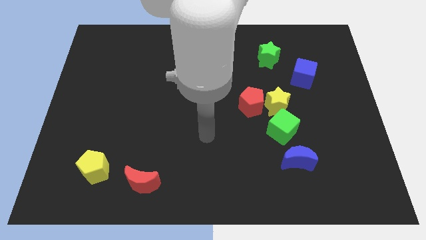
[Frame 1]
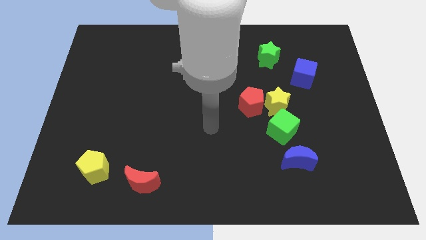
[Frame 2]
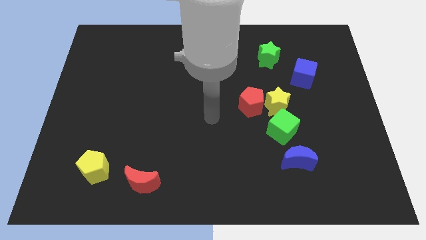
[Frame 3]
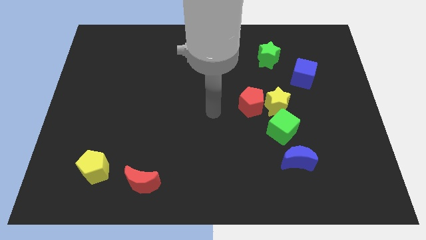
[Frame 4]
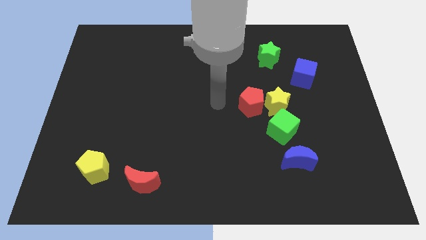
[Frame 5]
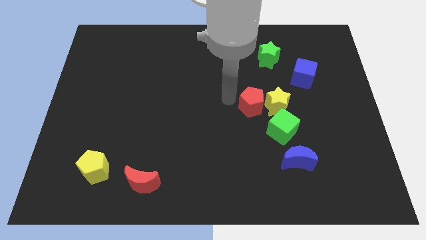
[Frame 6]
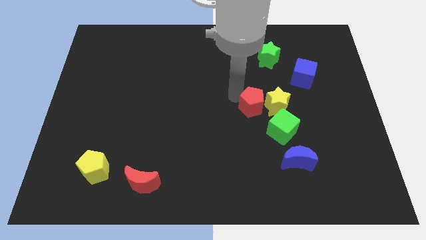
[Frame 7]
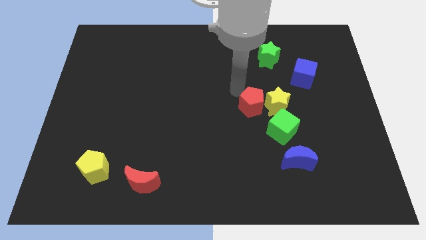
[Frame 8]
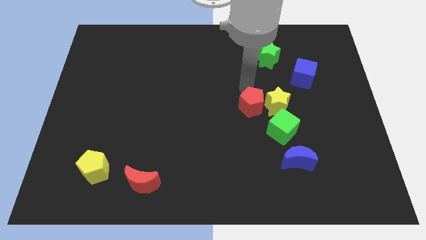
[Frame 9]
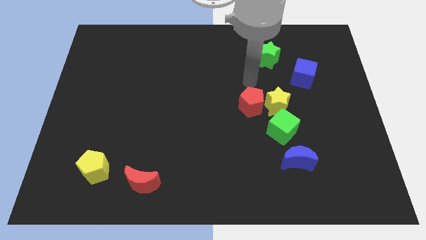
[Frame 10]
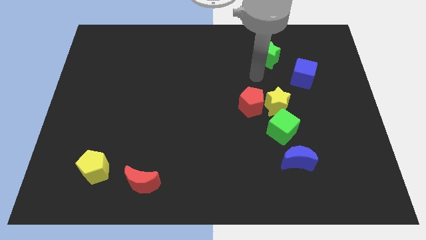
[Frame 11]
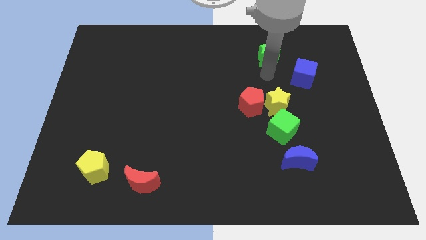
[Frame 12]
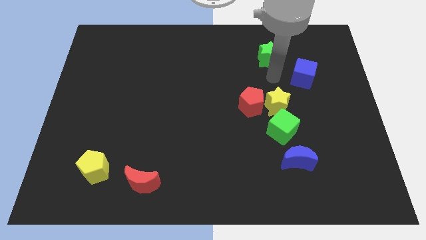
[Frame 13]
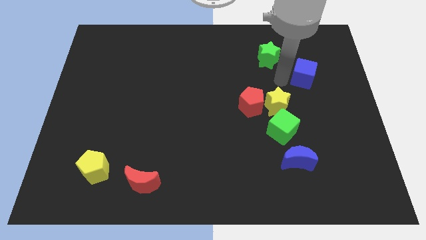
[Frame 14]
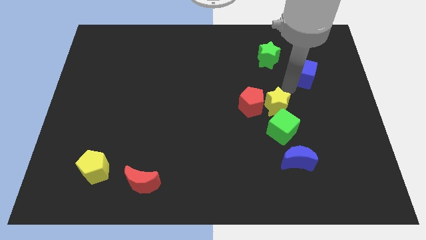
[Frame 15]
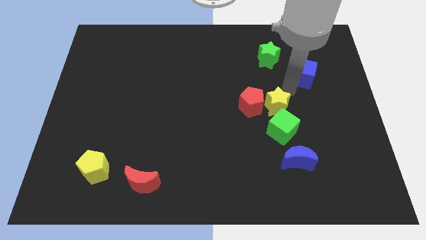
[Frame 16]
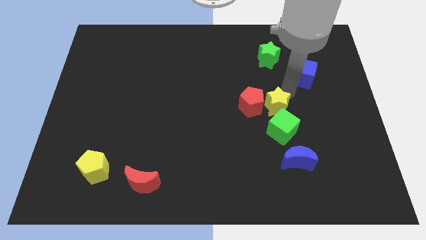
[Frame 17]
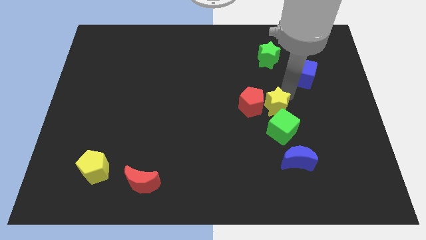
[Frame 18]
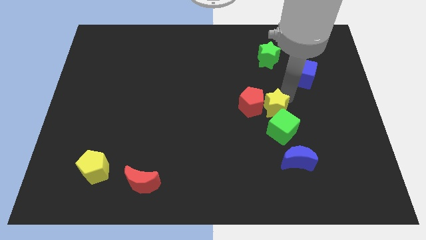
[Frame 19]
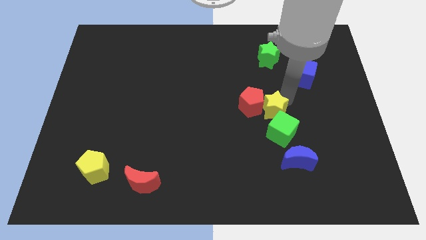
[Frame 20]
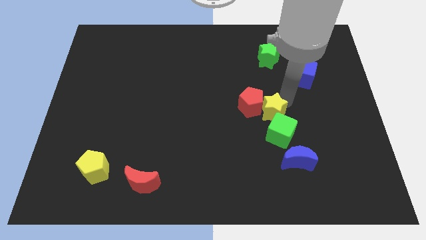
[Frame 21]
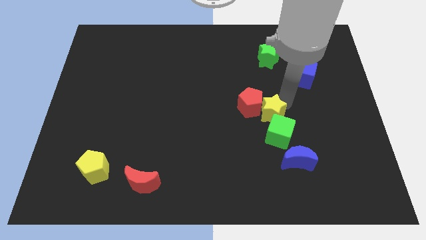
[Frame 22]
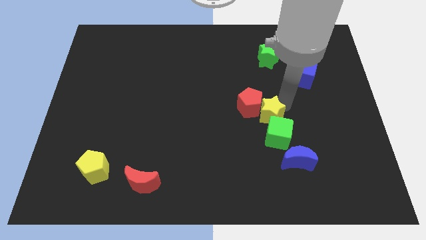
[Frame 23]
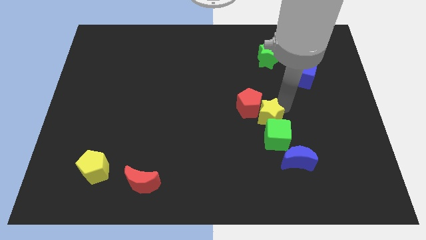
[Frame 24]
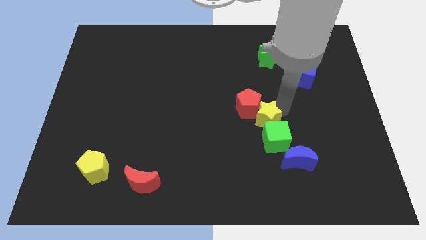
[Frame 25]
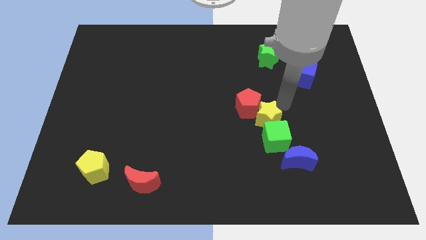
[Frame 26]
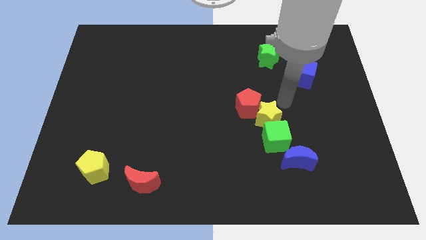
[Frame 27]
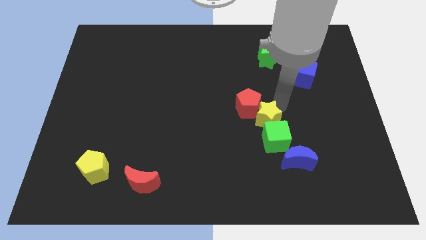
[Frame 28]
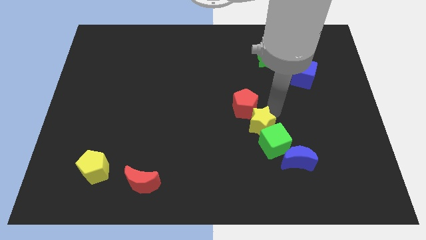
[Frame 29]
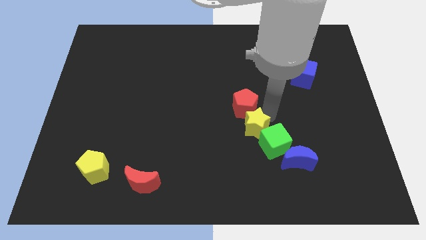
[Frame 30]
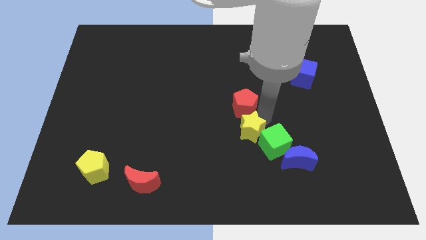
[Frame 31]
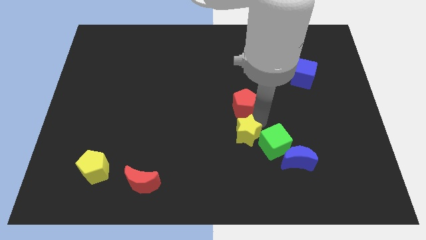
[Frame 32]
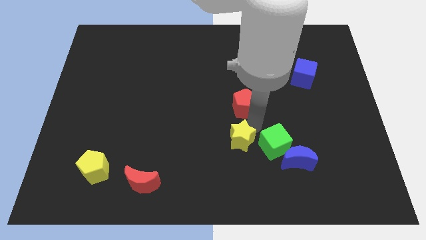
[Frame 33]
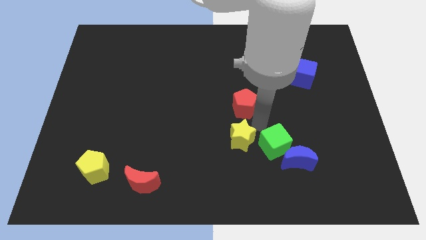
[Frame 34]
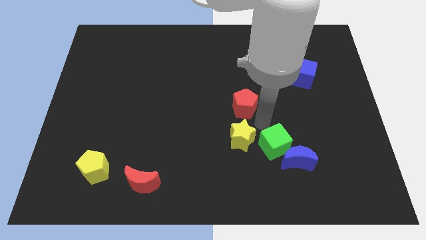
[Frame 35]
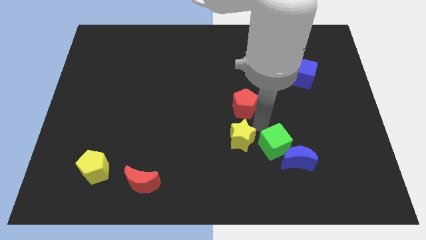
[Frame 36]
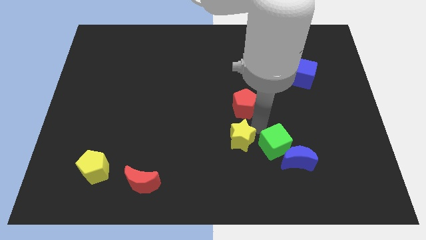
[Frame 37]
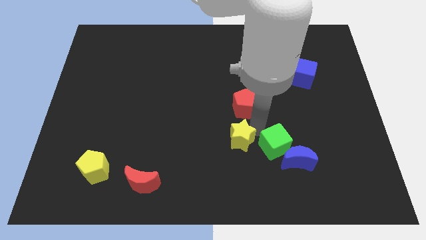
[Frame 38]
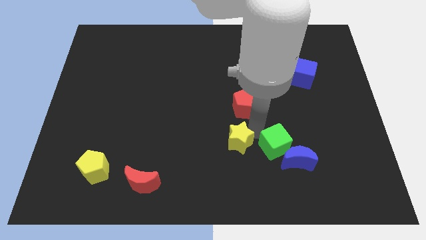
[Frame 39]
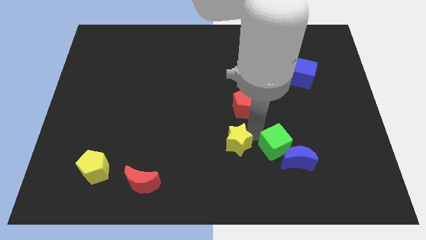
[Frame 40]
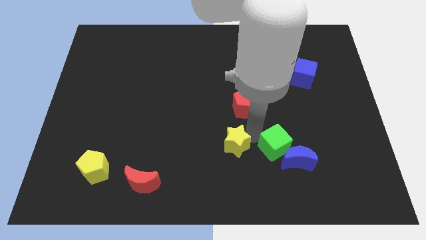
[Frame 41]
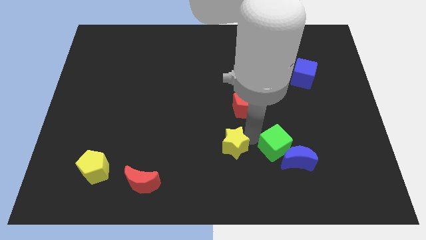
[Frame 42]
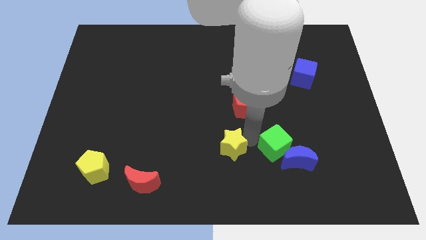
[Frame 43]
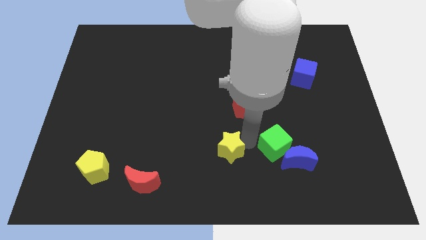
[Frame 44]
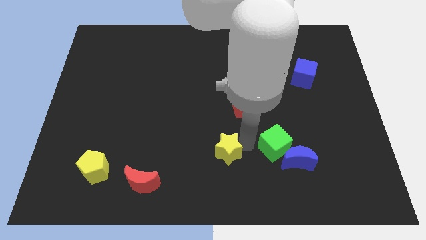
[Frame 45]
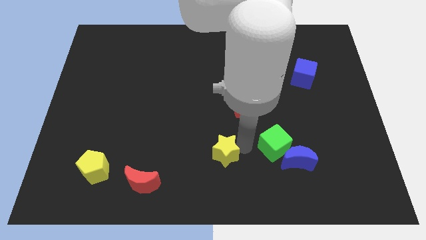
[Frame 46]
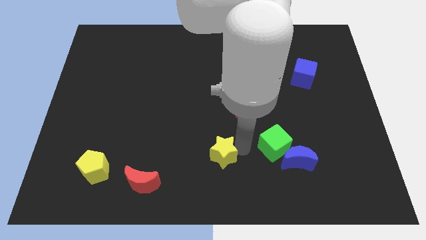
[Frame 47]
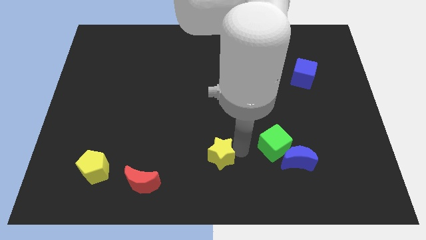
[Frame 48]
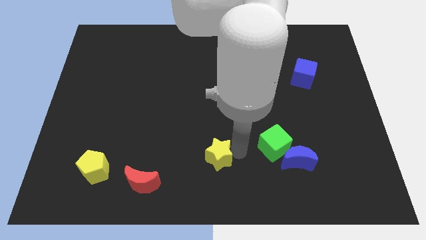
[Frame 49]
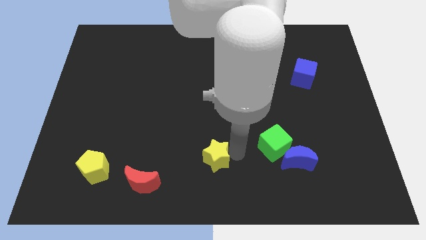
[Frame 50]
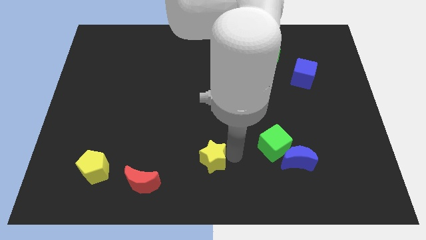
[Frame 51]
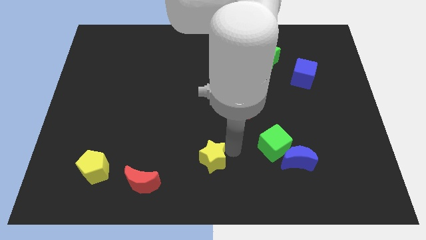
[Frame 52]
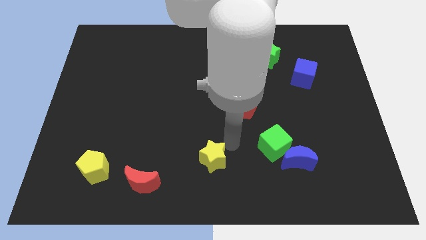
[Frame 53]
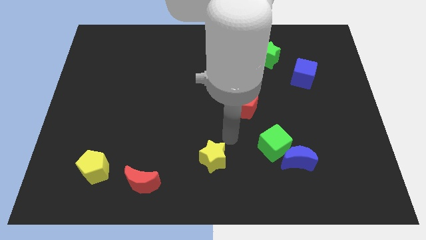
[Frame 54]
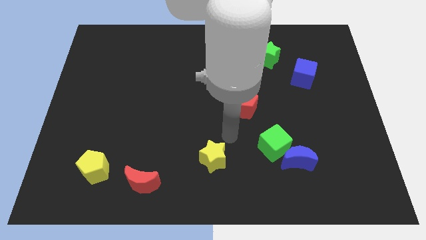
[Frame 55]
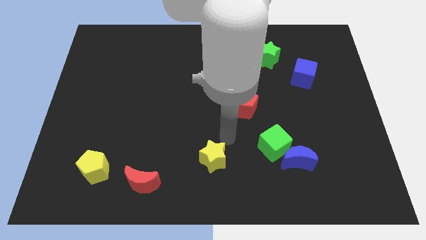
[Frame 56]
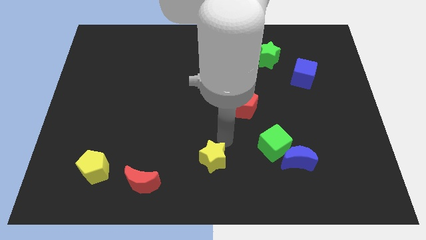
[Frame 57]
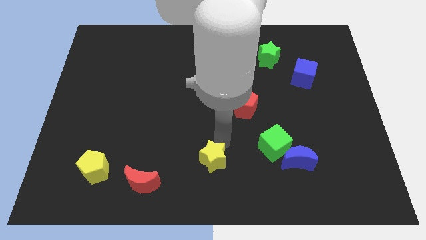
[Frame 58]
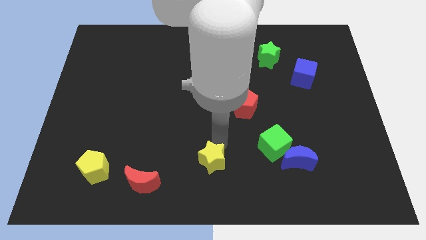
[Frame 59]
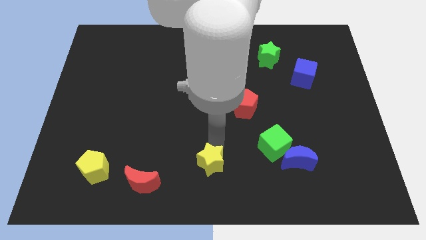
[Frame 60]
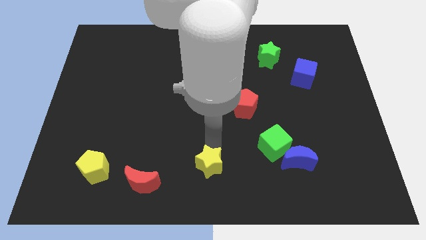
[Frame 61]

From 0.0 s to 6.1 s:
push the yellow star right of the red moon
